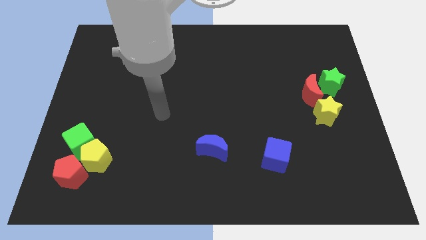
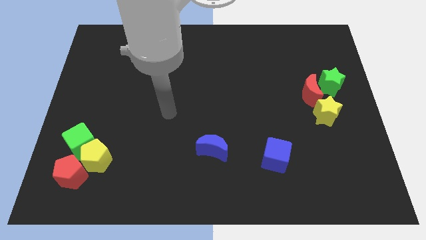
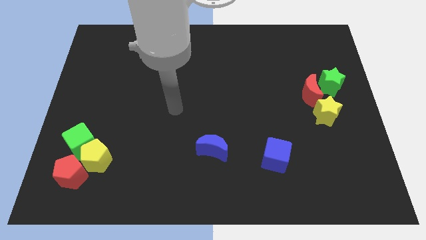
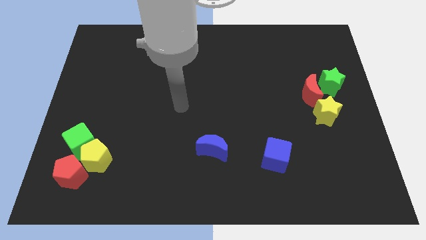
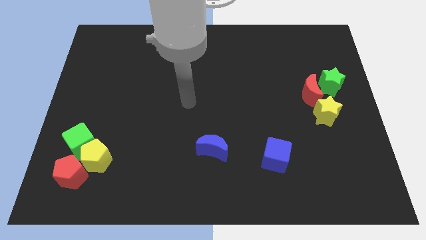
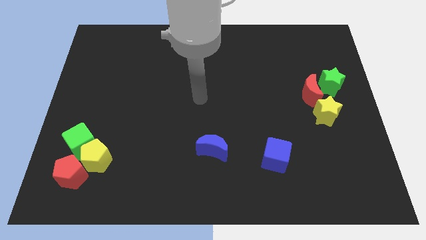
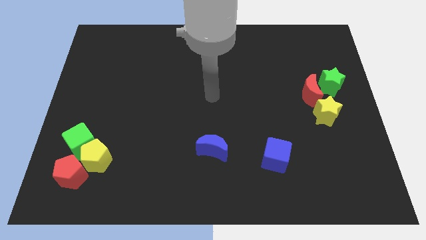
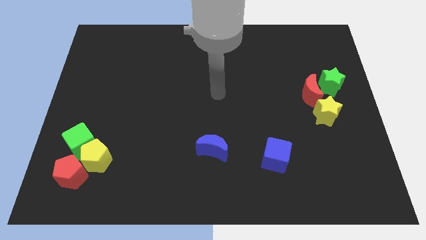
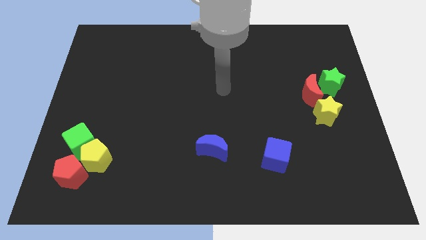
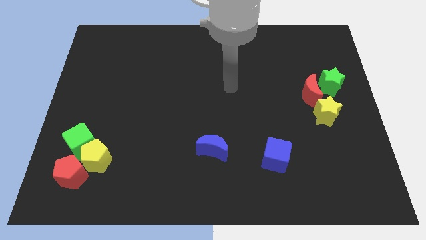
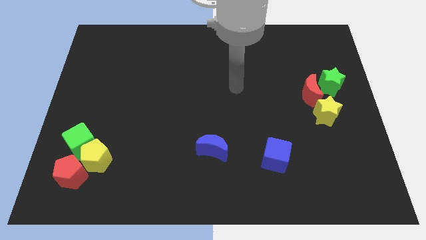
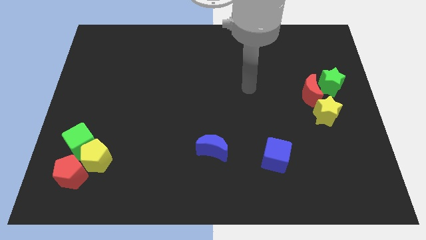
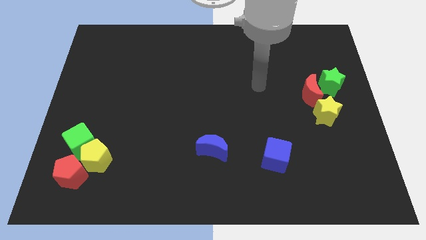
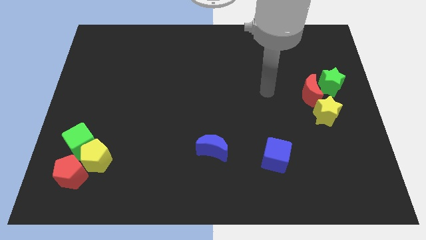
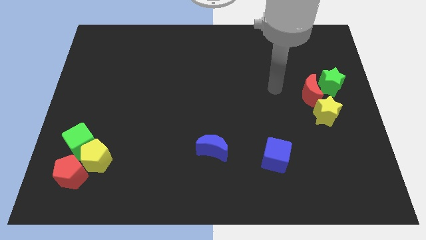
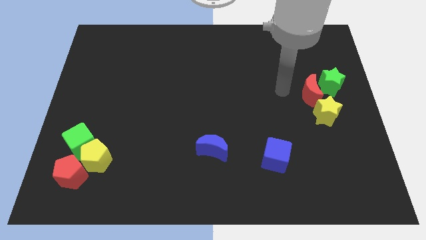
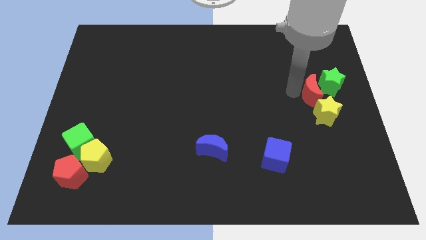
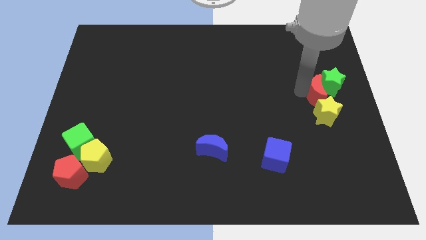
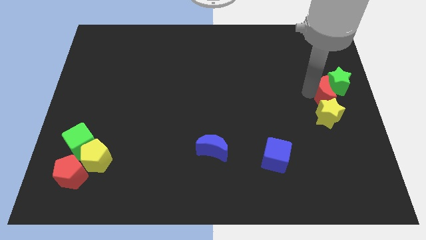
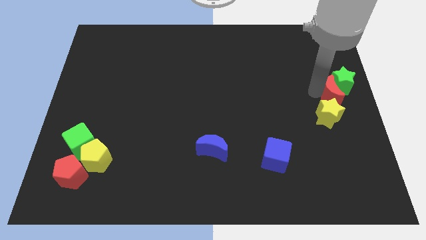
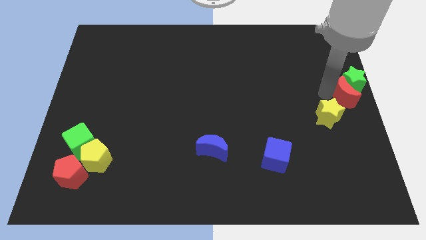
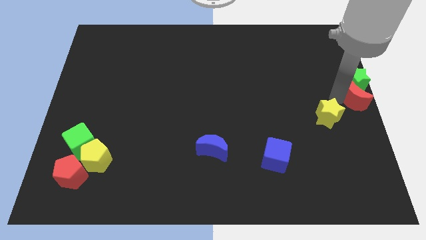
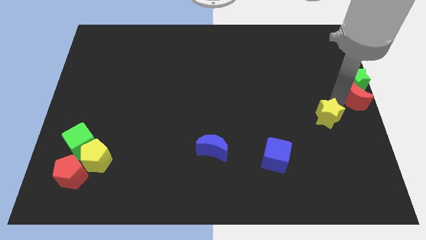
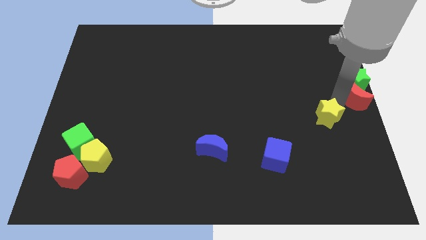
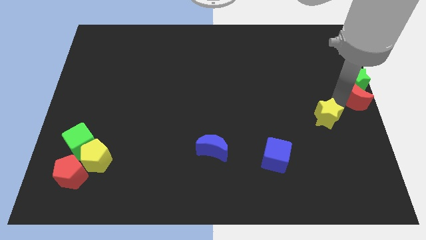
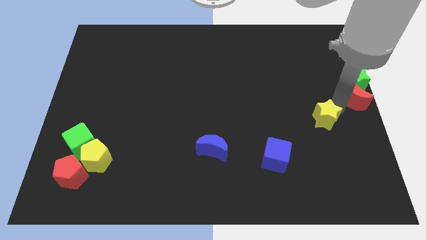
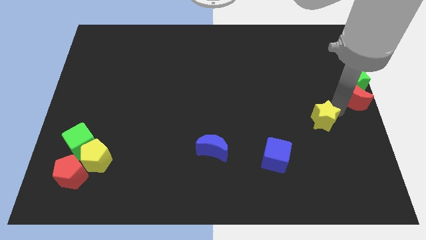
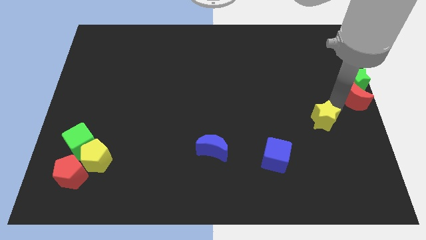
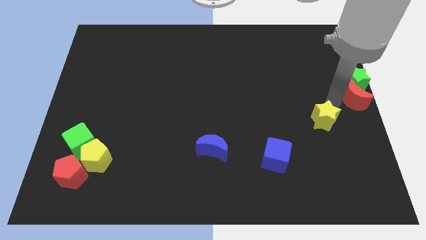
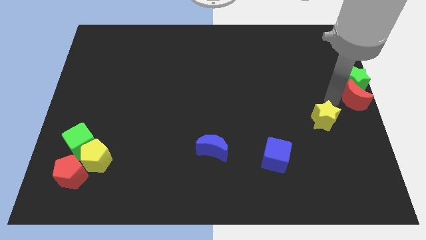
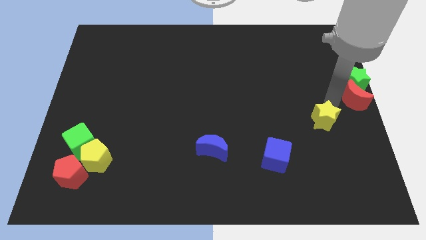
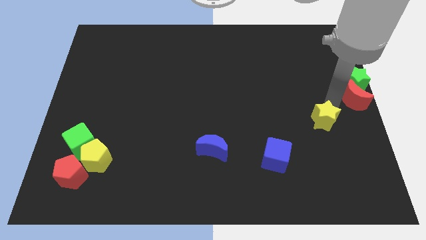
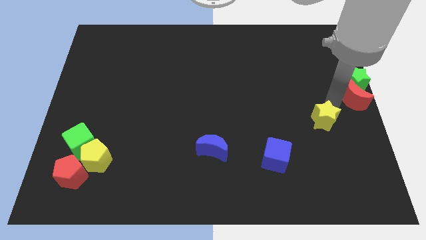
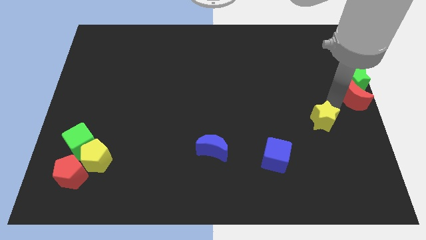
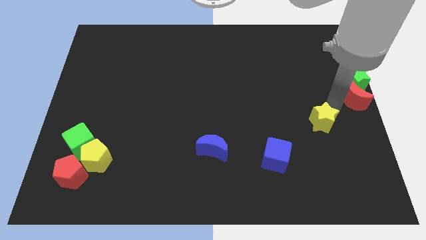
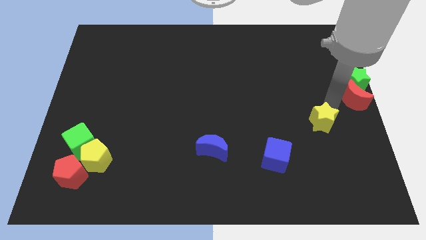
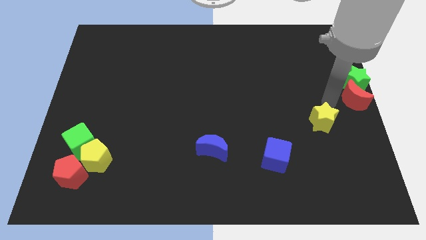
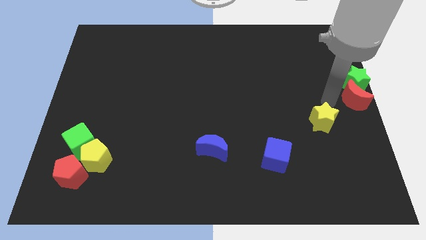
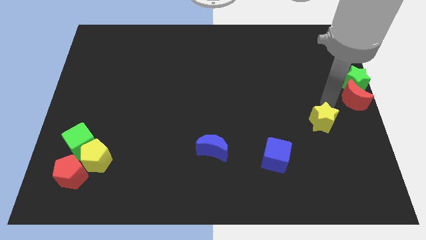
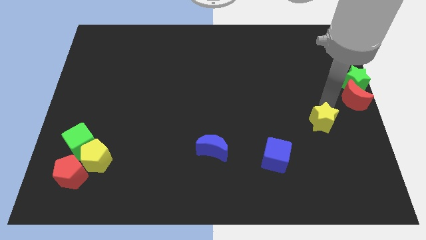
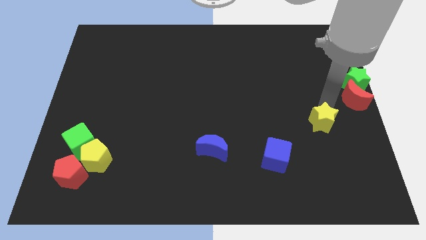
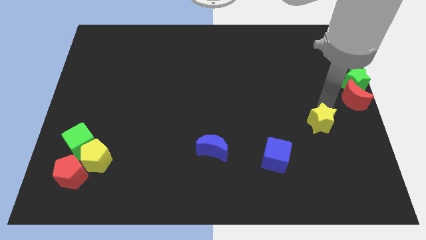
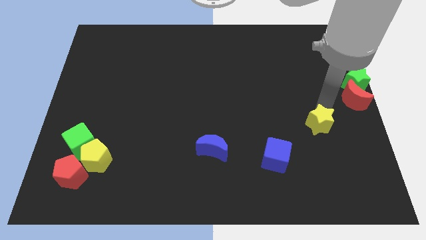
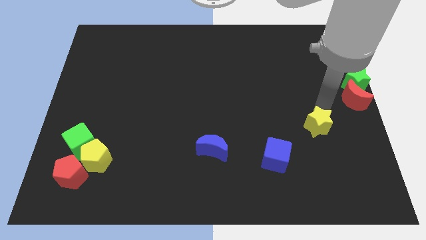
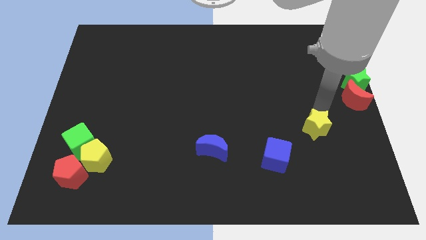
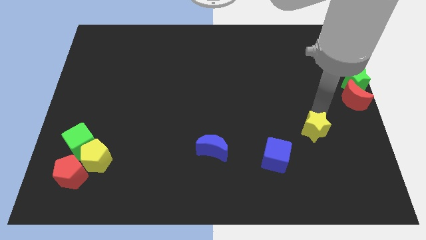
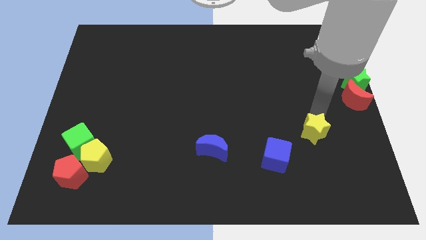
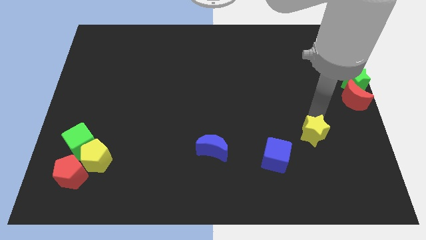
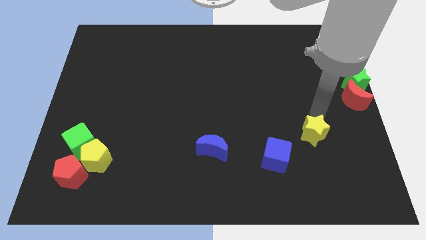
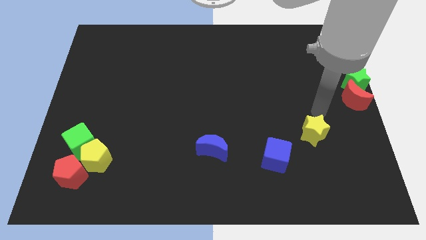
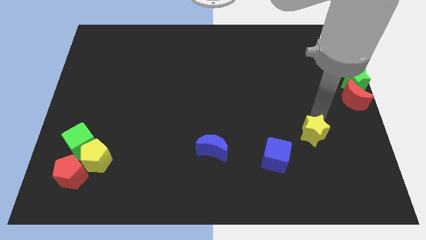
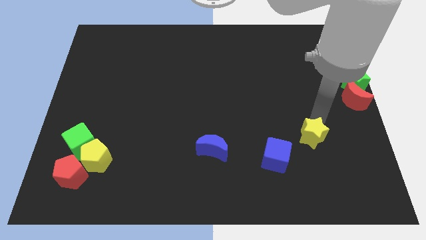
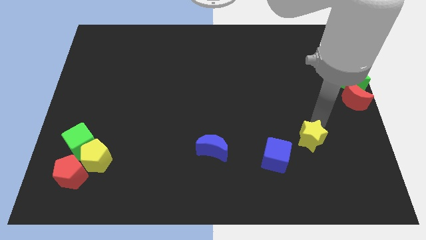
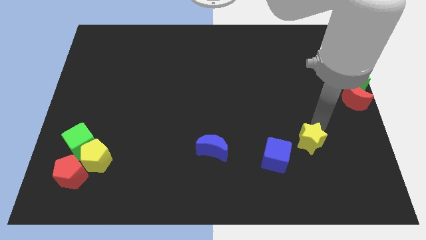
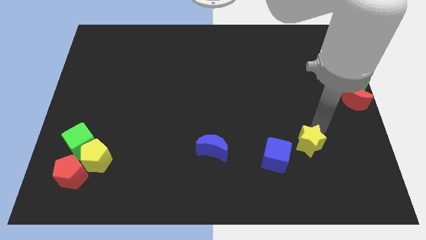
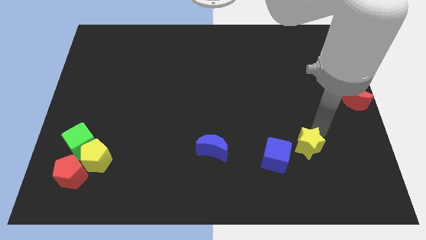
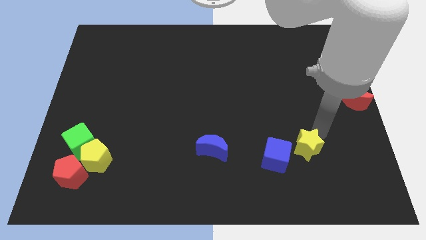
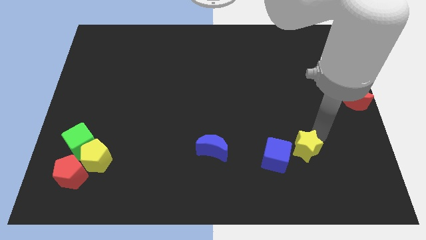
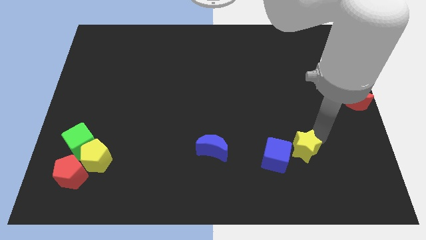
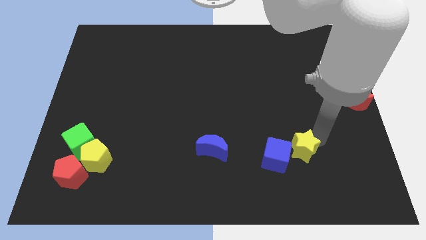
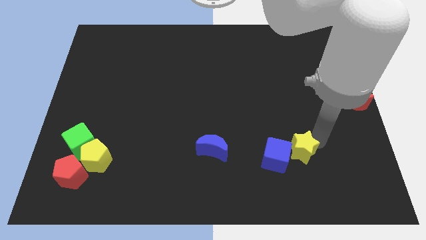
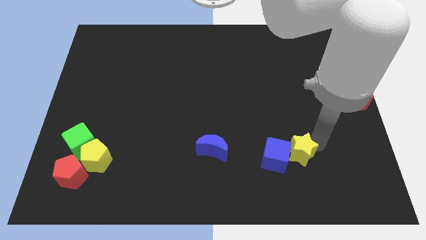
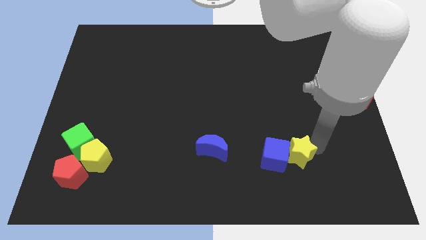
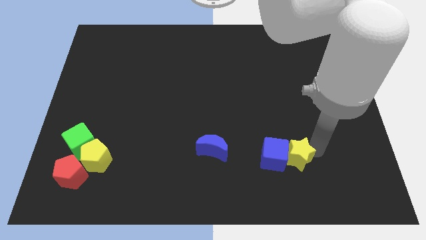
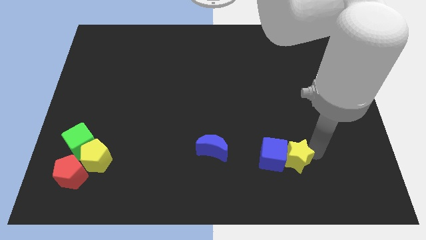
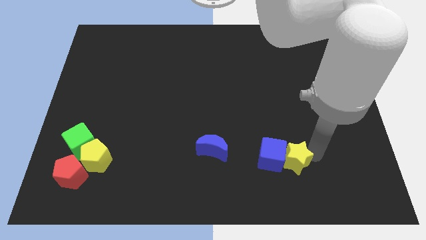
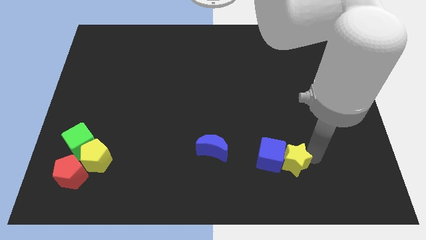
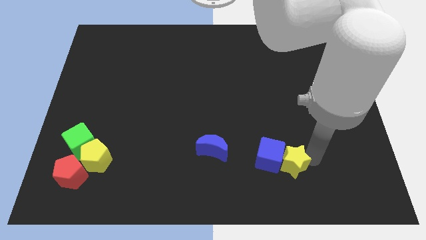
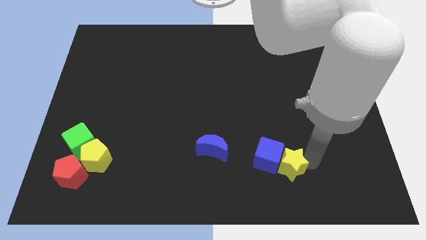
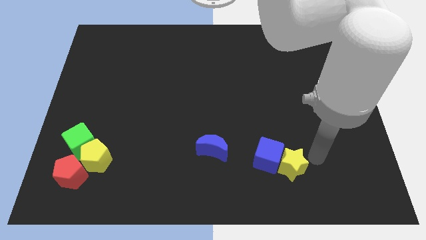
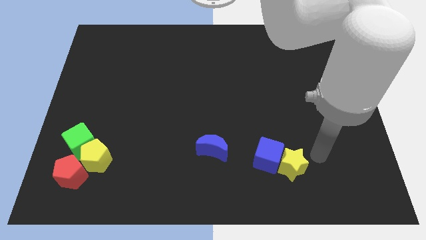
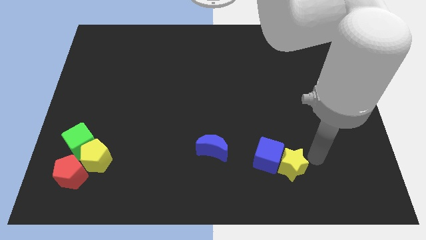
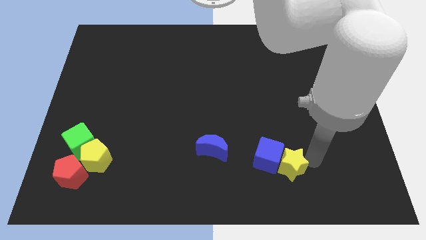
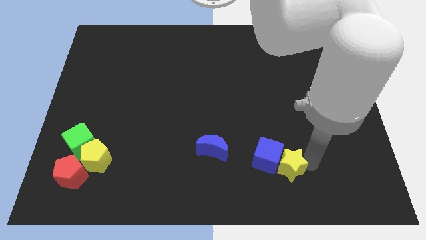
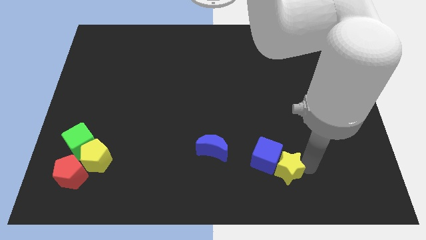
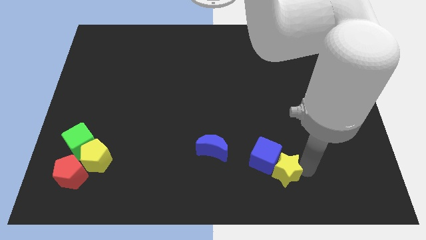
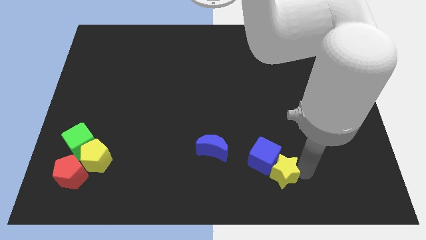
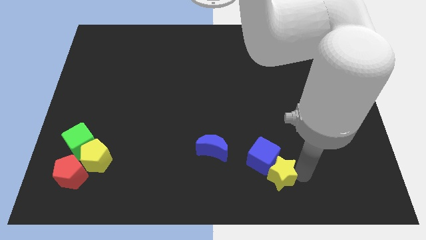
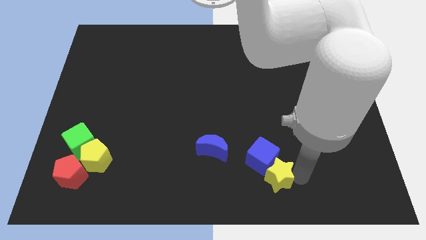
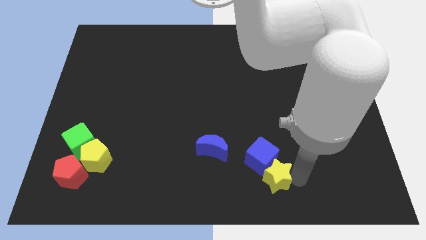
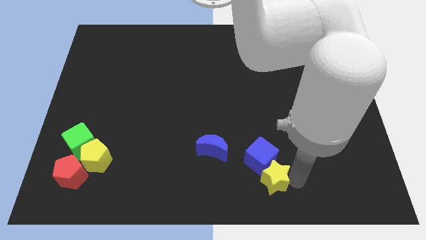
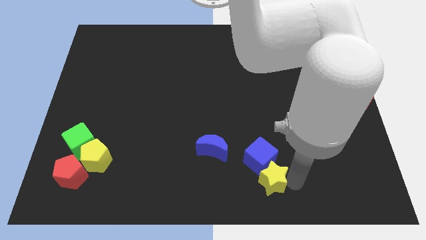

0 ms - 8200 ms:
push the yellow star to the bottom
